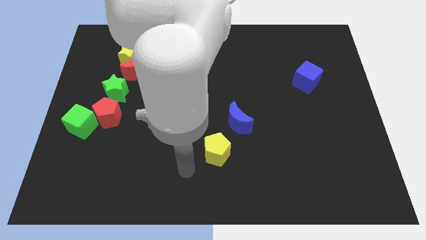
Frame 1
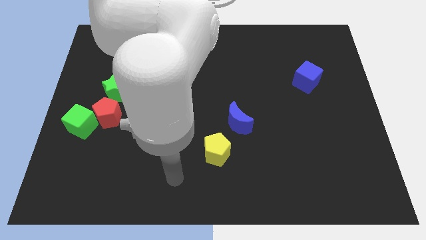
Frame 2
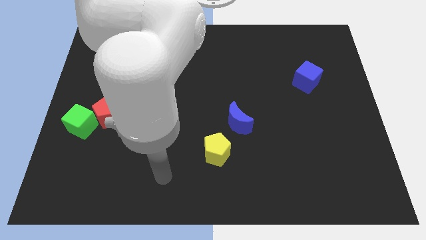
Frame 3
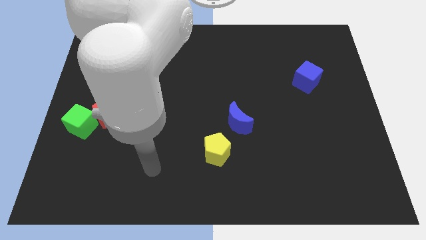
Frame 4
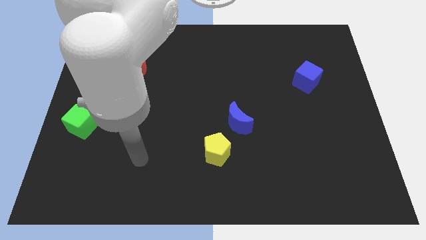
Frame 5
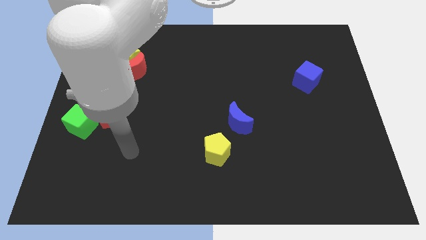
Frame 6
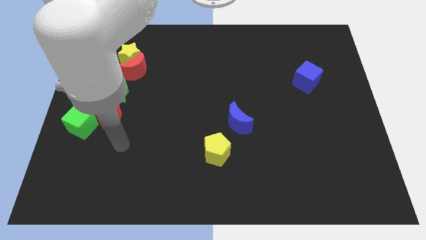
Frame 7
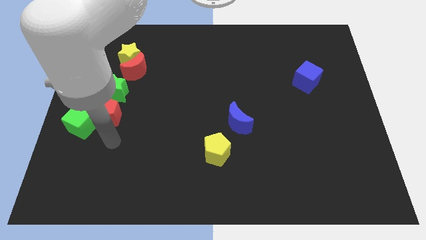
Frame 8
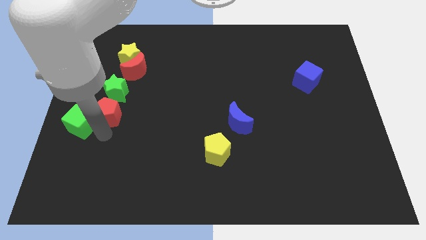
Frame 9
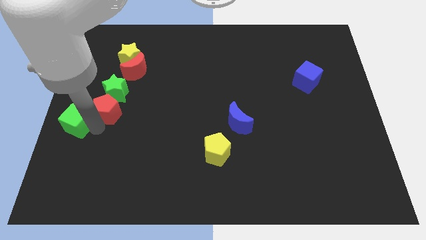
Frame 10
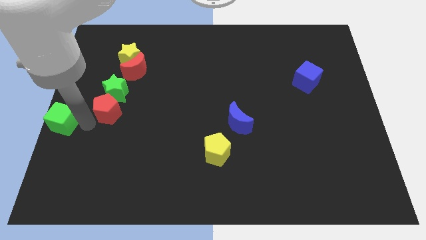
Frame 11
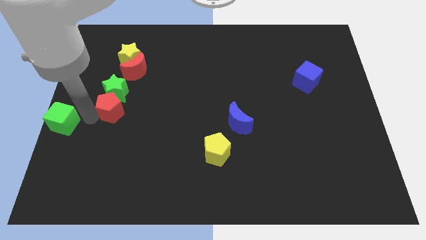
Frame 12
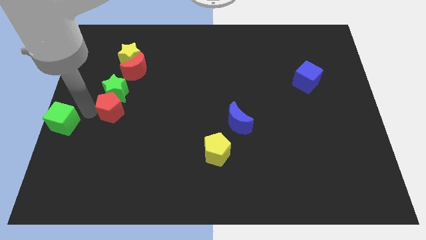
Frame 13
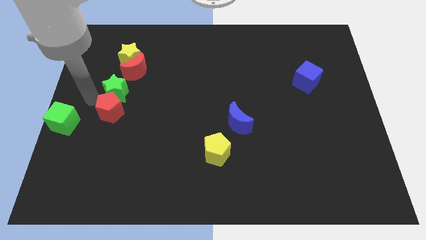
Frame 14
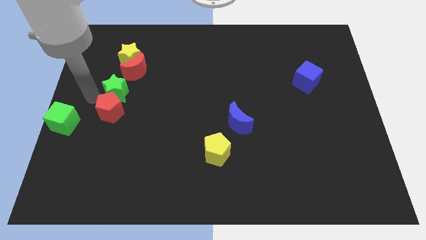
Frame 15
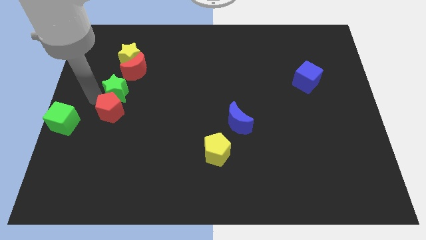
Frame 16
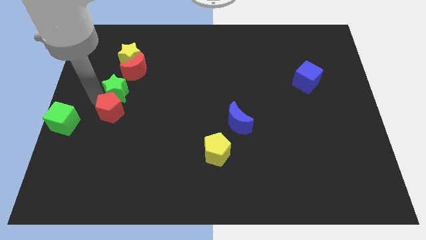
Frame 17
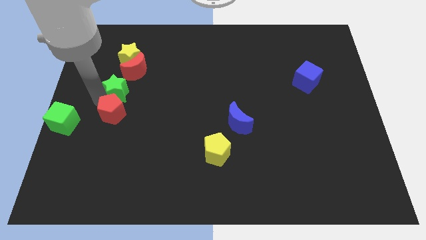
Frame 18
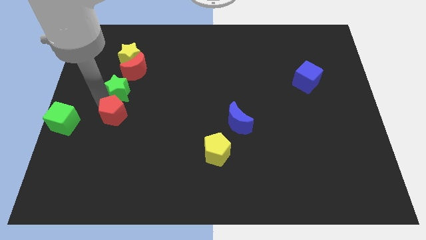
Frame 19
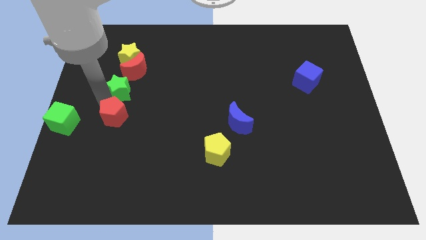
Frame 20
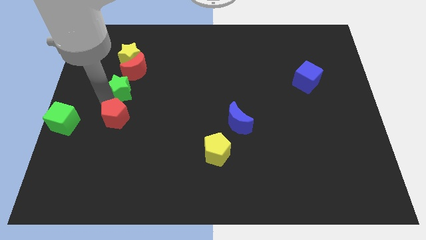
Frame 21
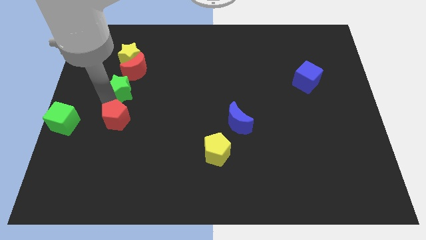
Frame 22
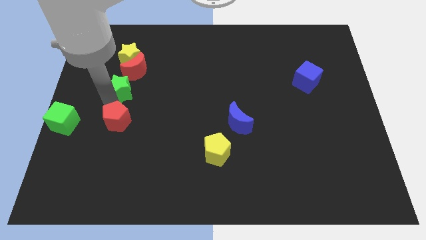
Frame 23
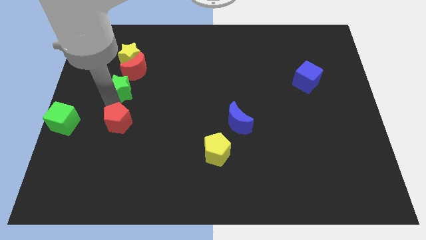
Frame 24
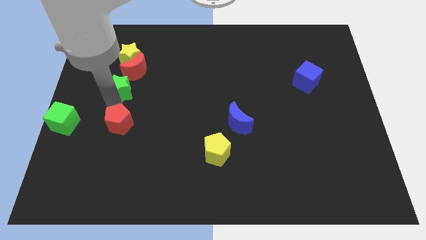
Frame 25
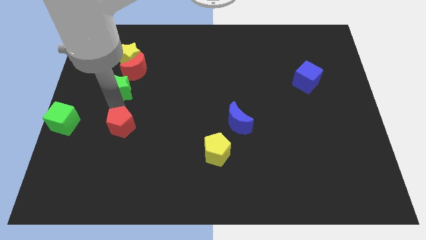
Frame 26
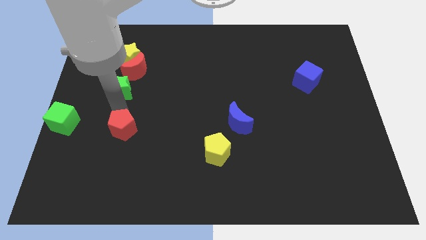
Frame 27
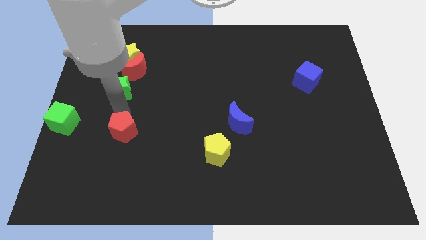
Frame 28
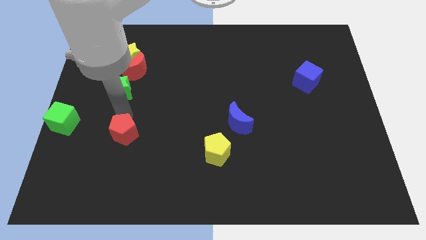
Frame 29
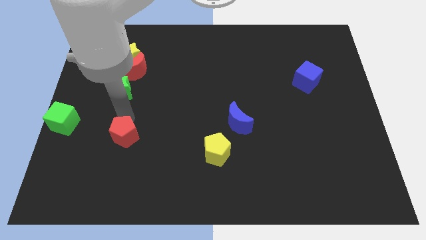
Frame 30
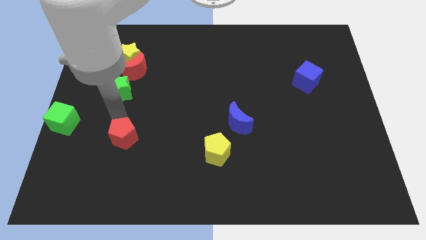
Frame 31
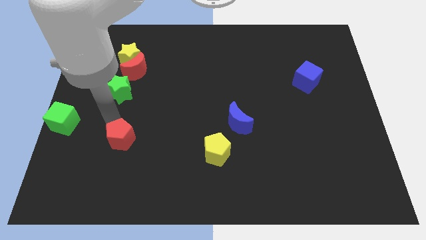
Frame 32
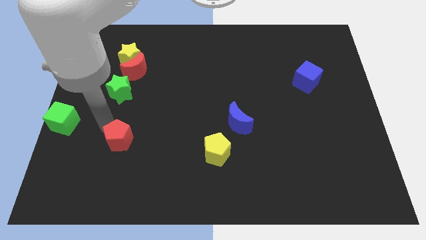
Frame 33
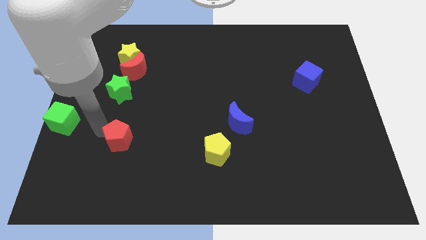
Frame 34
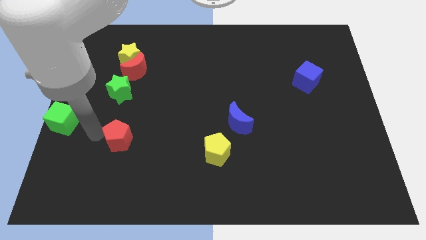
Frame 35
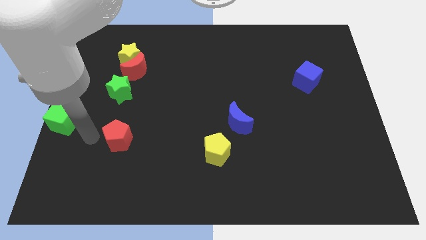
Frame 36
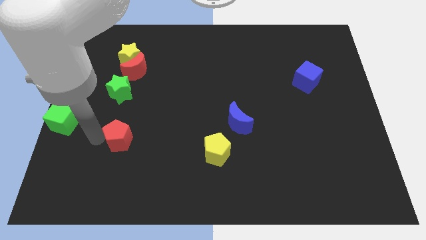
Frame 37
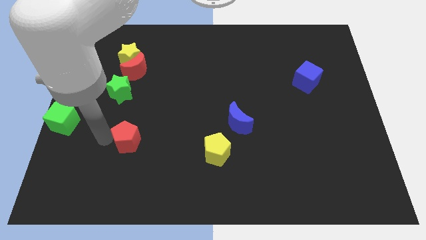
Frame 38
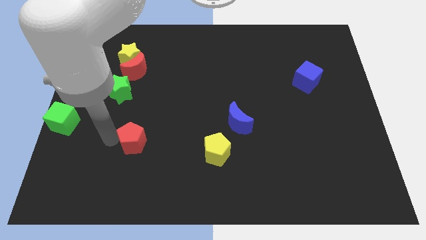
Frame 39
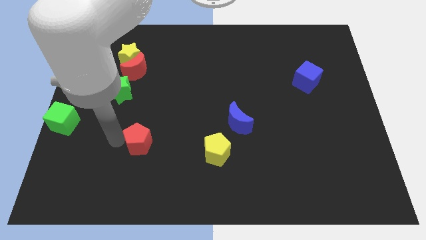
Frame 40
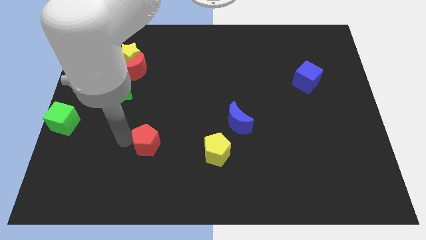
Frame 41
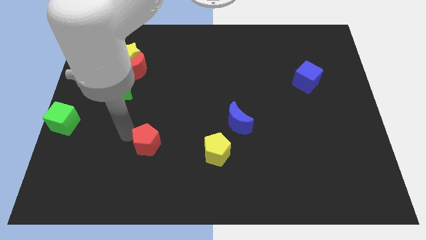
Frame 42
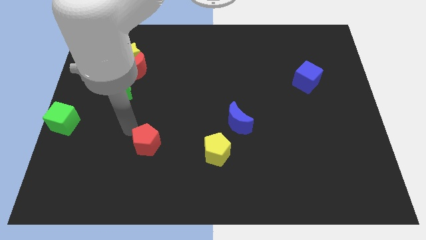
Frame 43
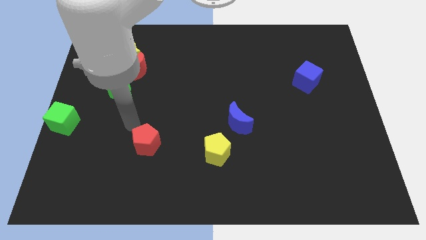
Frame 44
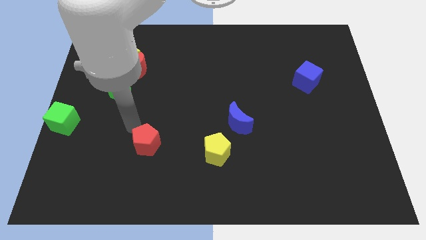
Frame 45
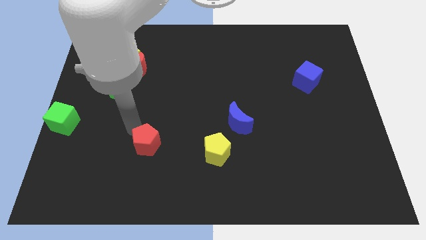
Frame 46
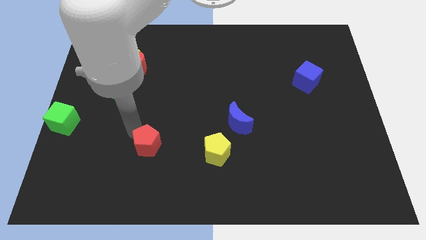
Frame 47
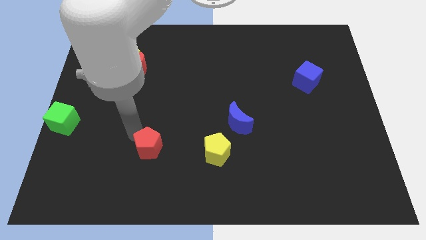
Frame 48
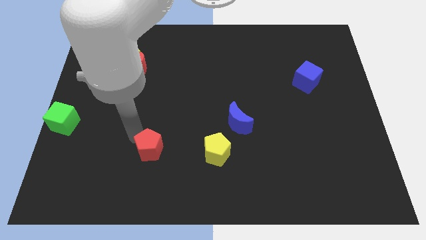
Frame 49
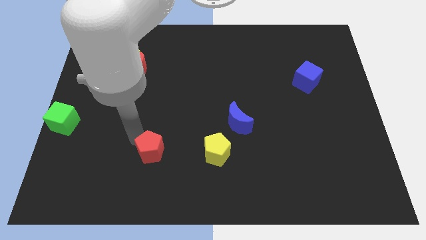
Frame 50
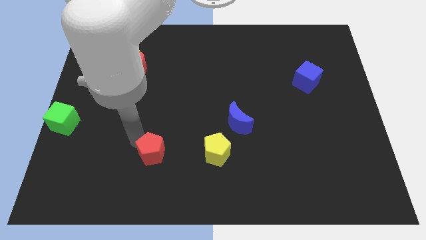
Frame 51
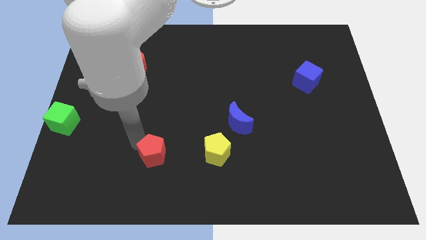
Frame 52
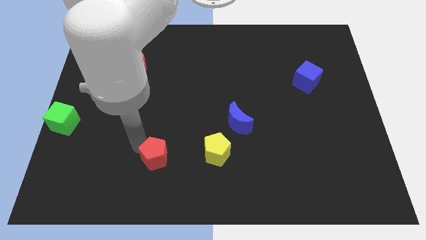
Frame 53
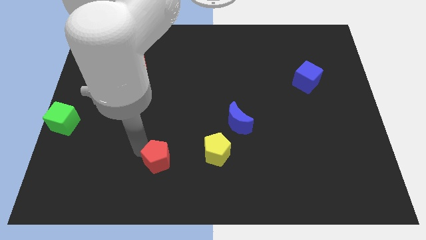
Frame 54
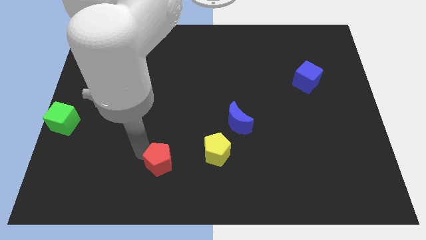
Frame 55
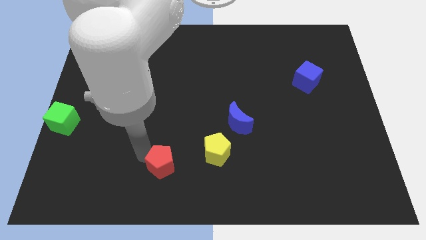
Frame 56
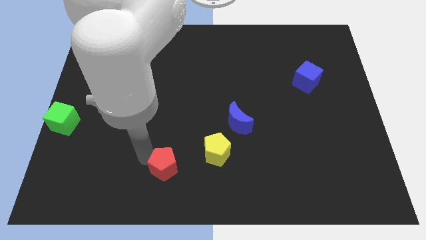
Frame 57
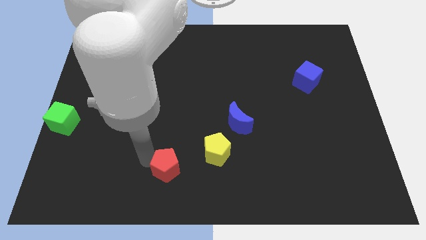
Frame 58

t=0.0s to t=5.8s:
put the red pentagon to the bottom

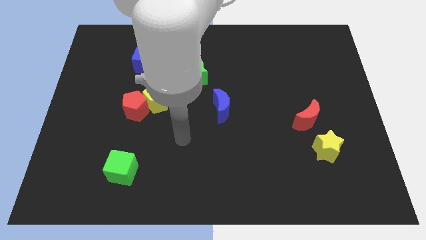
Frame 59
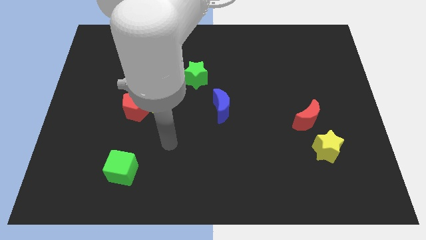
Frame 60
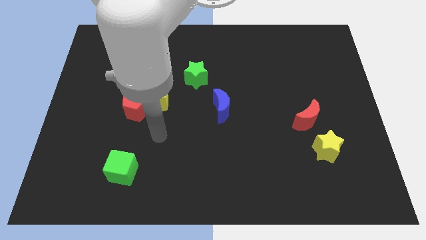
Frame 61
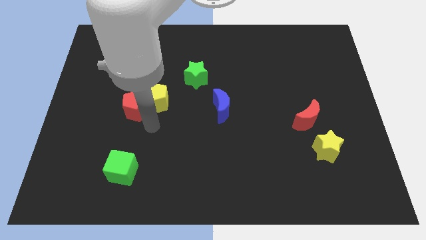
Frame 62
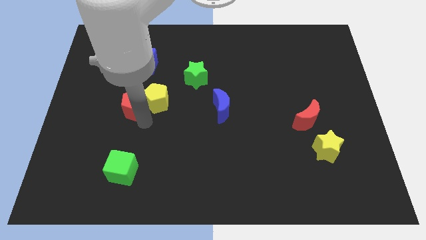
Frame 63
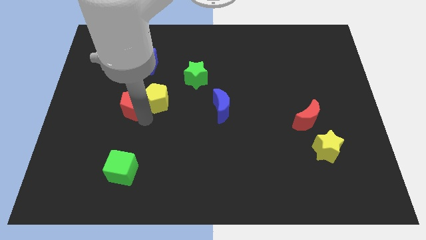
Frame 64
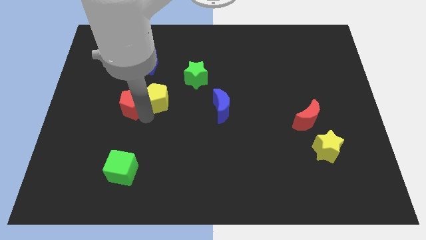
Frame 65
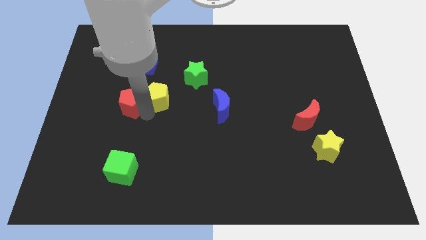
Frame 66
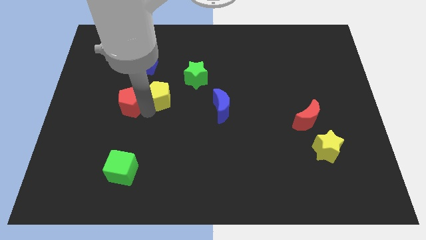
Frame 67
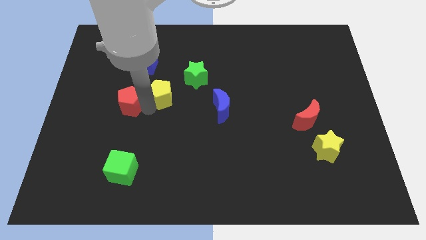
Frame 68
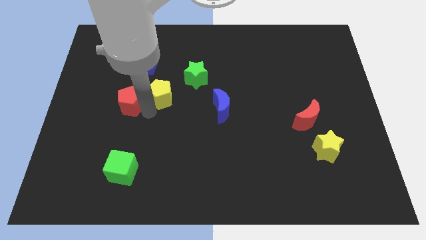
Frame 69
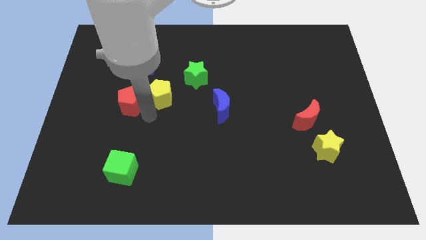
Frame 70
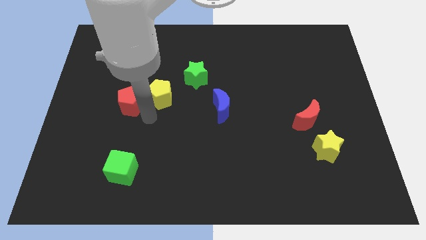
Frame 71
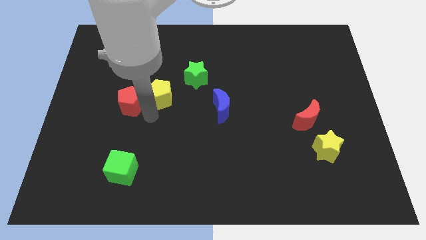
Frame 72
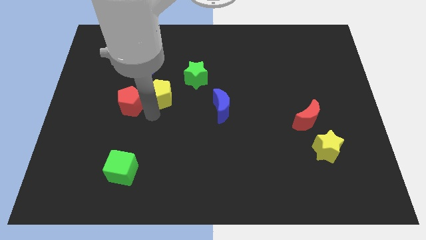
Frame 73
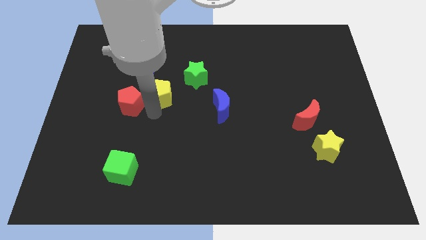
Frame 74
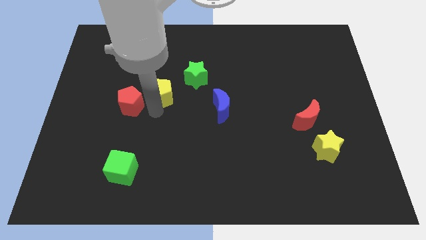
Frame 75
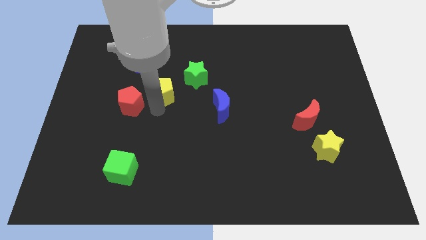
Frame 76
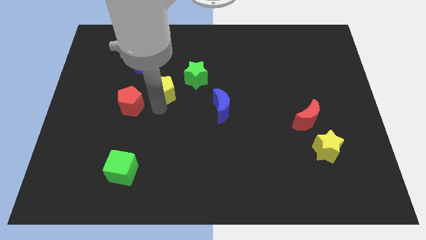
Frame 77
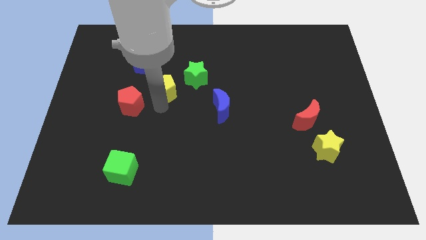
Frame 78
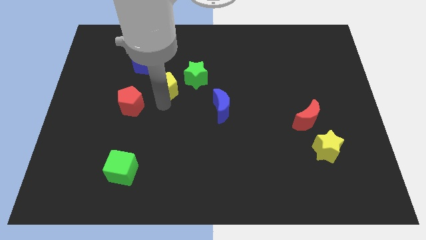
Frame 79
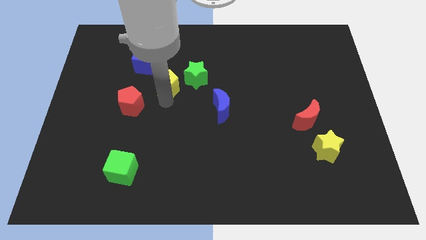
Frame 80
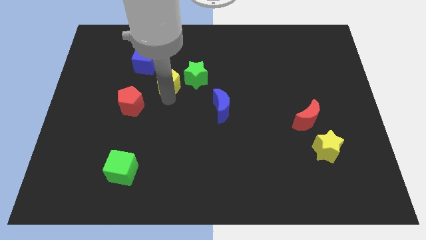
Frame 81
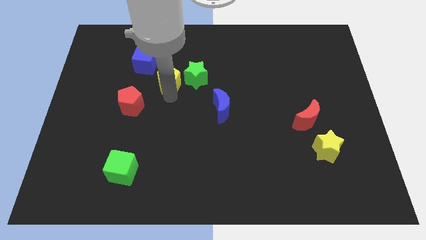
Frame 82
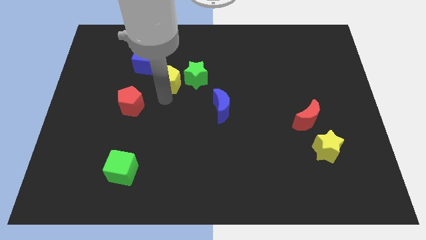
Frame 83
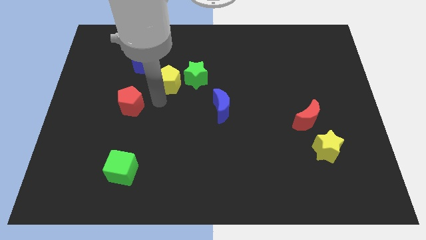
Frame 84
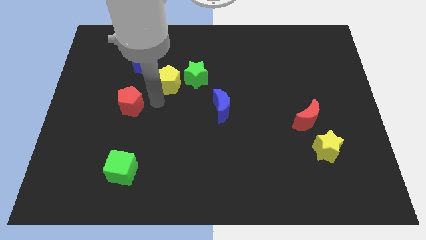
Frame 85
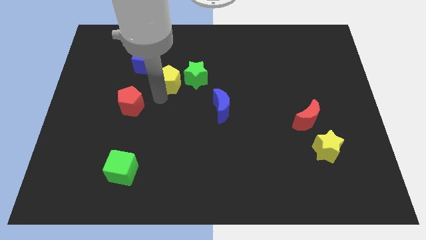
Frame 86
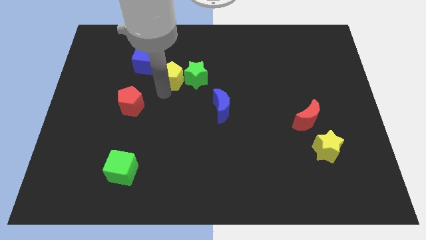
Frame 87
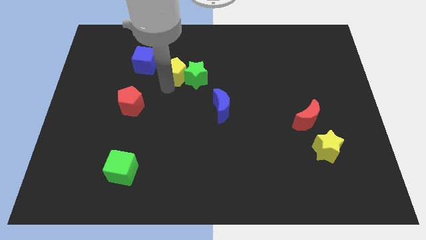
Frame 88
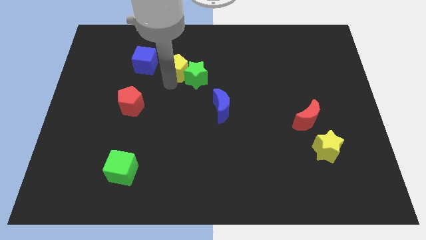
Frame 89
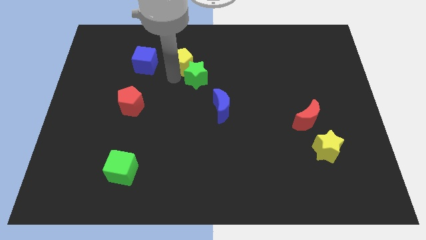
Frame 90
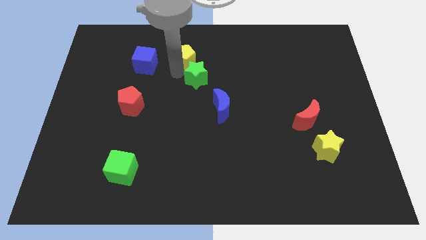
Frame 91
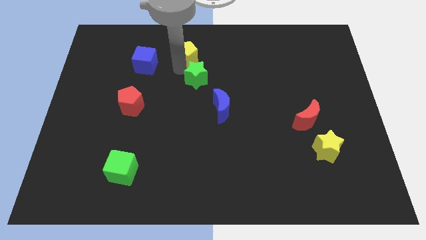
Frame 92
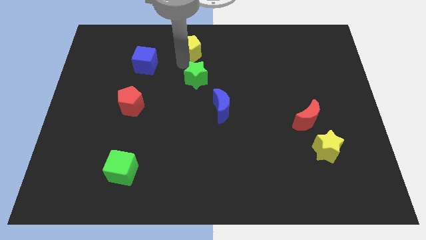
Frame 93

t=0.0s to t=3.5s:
slide the yellow pentagon to the top side
